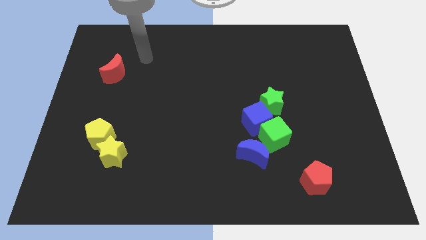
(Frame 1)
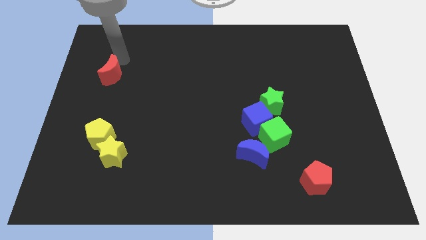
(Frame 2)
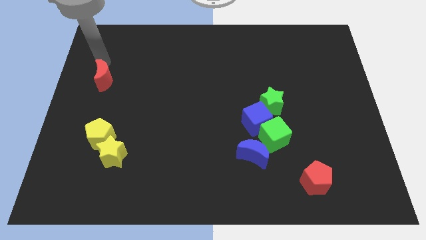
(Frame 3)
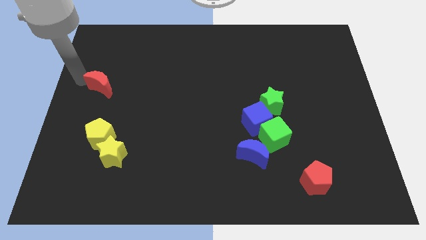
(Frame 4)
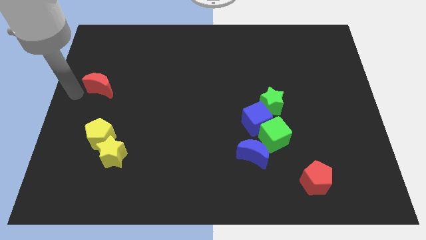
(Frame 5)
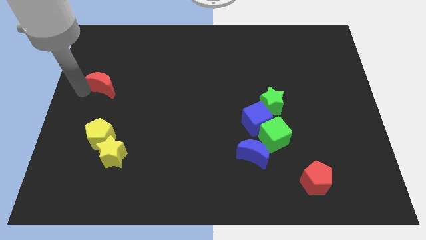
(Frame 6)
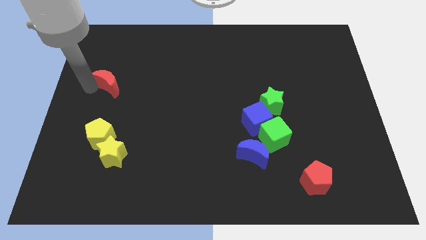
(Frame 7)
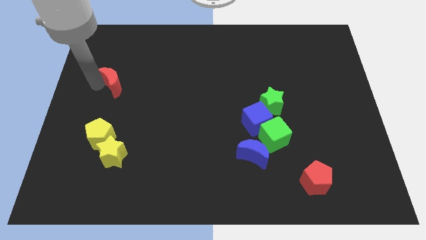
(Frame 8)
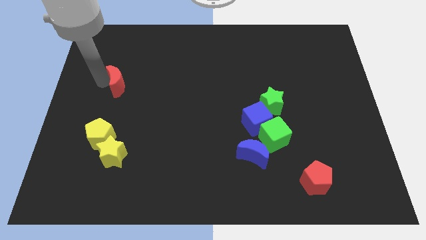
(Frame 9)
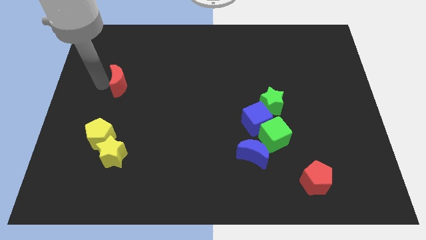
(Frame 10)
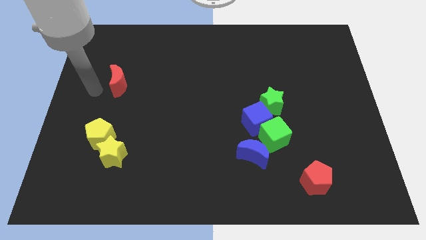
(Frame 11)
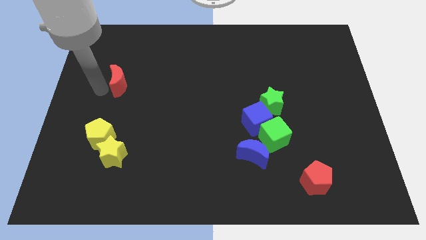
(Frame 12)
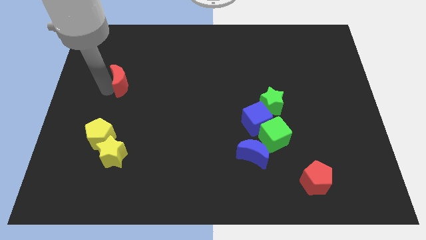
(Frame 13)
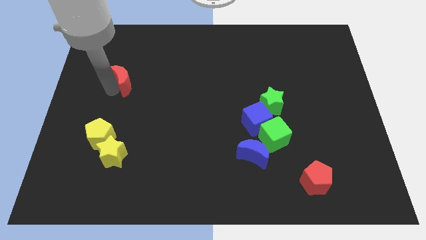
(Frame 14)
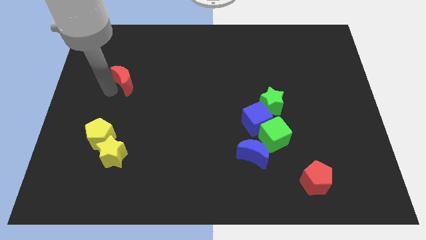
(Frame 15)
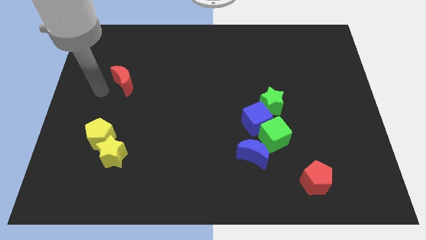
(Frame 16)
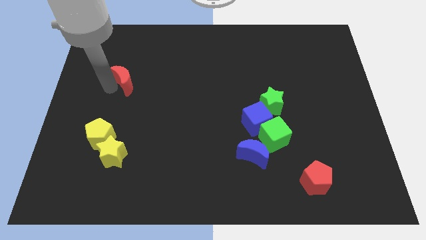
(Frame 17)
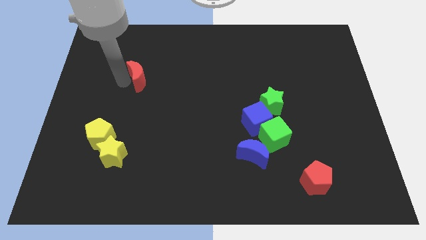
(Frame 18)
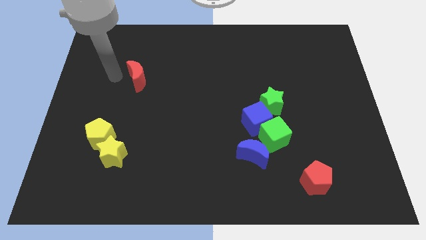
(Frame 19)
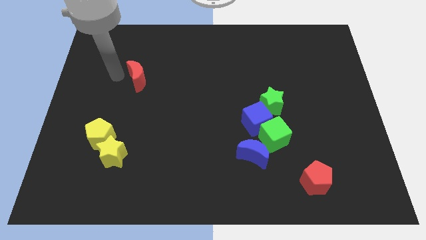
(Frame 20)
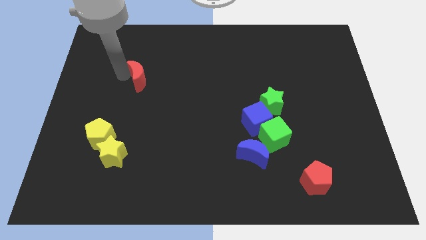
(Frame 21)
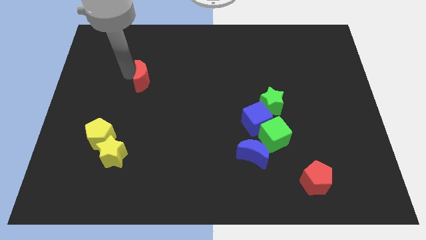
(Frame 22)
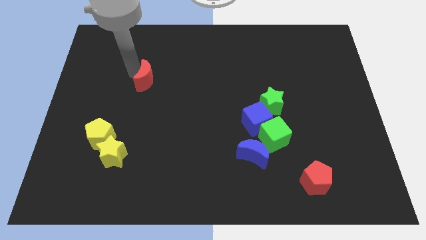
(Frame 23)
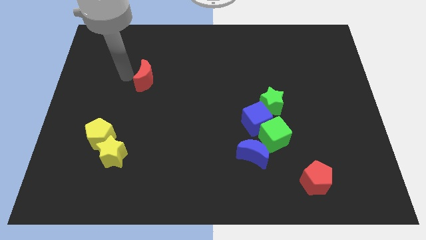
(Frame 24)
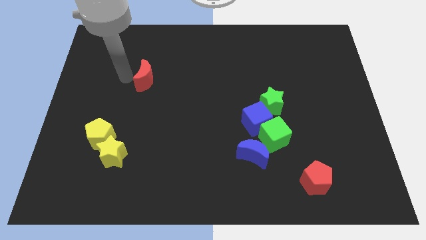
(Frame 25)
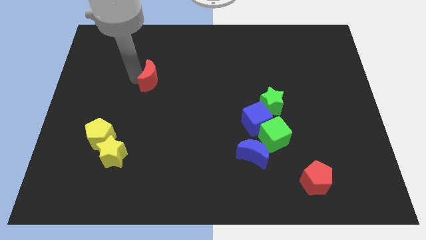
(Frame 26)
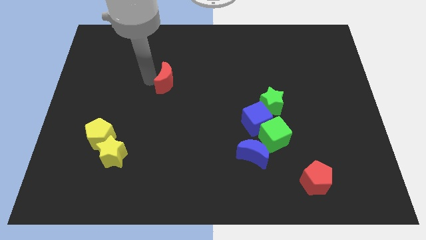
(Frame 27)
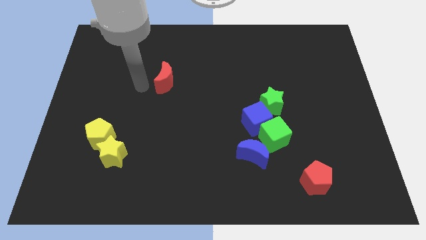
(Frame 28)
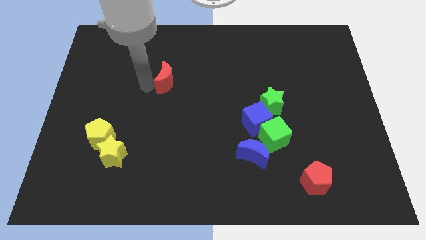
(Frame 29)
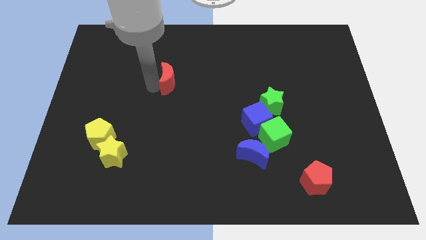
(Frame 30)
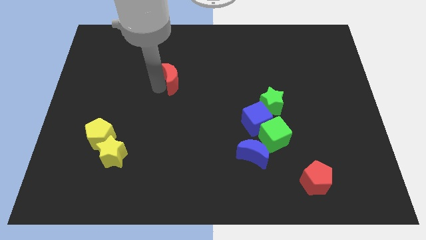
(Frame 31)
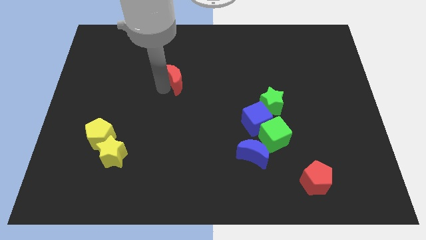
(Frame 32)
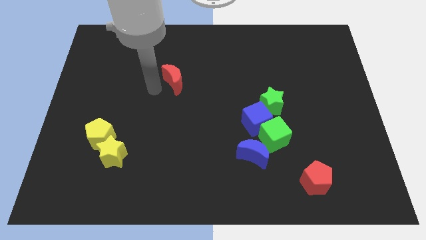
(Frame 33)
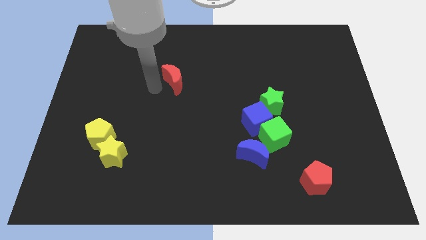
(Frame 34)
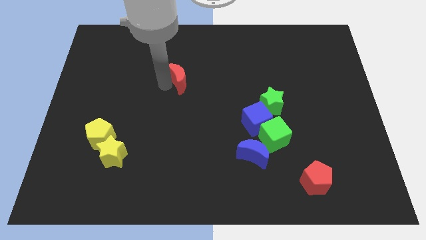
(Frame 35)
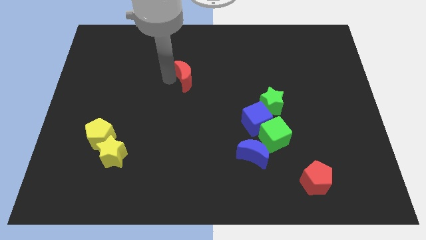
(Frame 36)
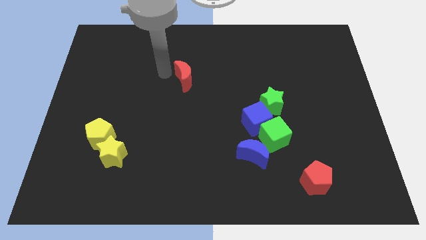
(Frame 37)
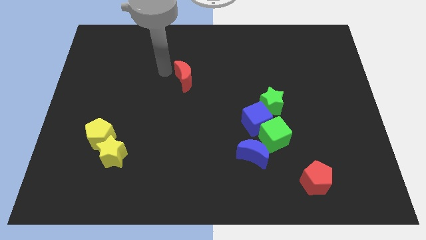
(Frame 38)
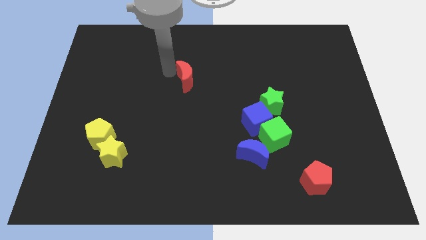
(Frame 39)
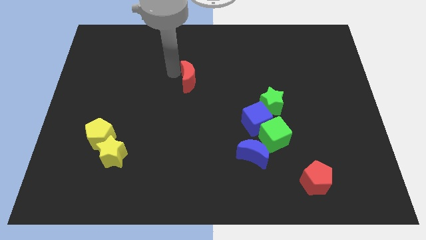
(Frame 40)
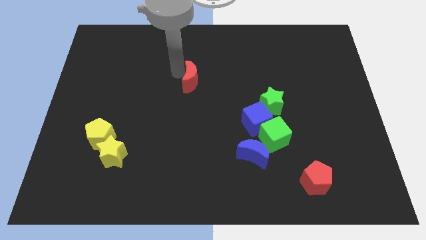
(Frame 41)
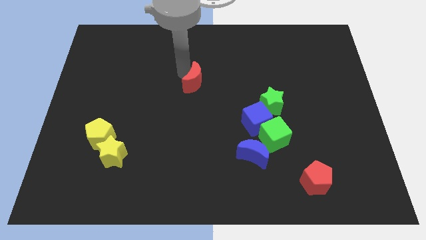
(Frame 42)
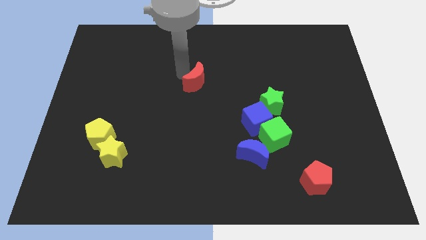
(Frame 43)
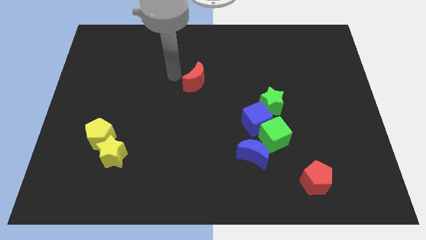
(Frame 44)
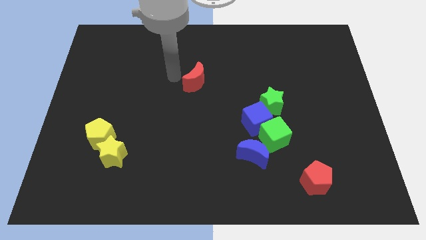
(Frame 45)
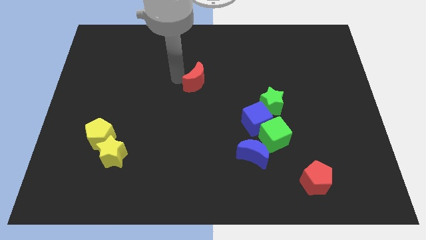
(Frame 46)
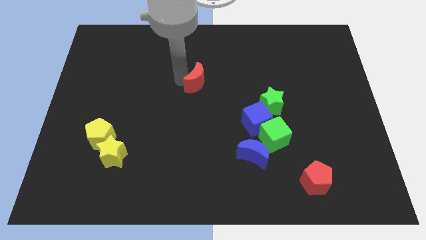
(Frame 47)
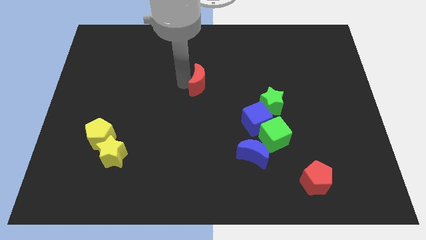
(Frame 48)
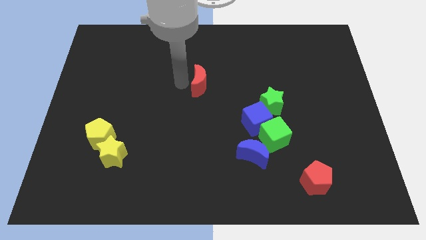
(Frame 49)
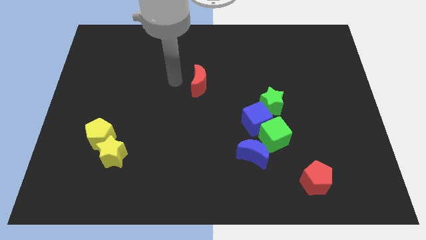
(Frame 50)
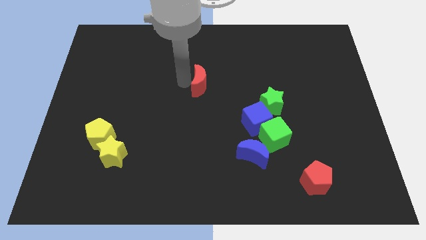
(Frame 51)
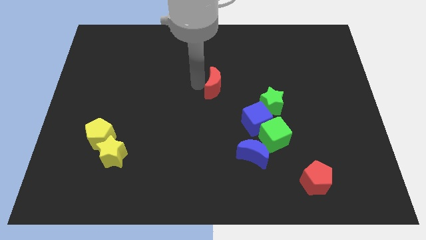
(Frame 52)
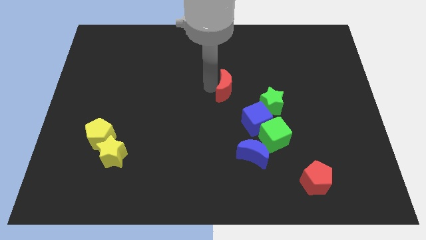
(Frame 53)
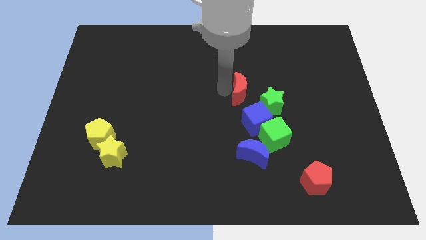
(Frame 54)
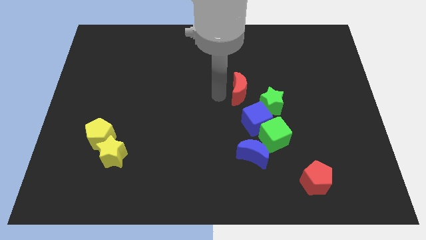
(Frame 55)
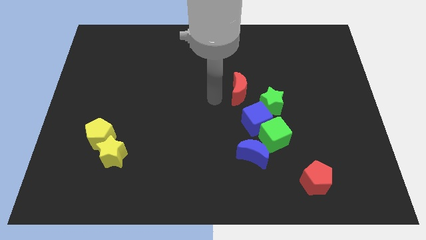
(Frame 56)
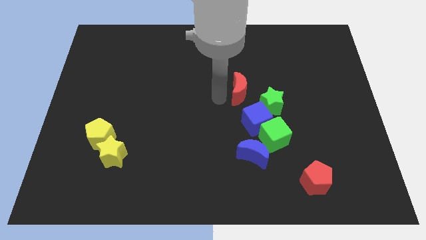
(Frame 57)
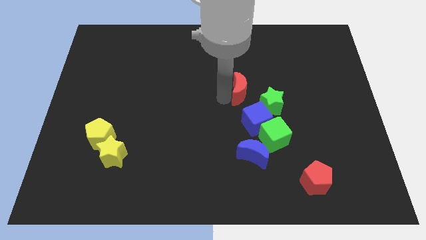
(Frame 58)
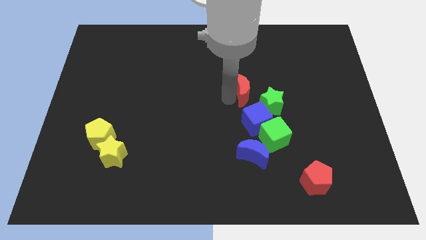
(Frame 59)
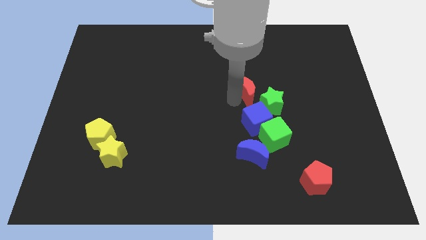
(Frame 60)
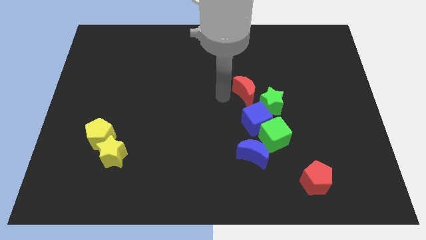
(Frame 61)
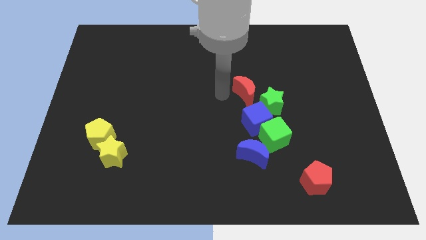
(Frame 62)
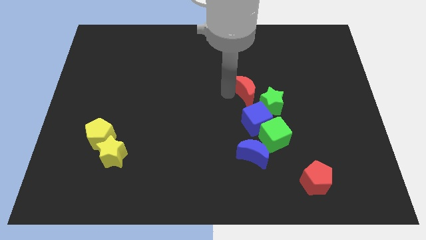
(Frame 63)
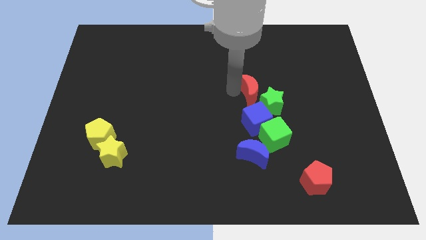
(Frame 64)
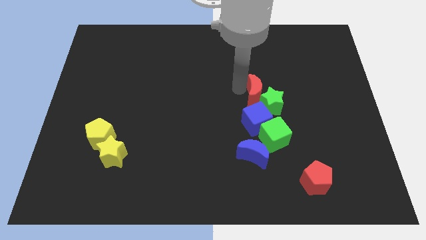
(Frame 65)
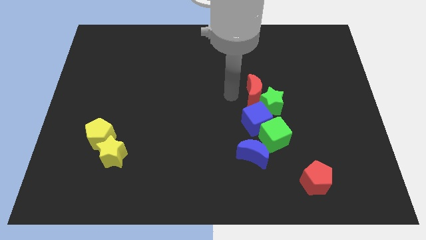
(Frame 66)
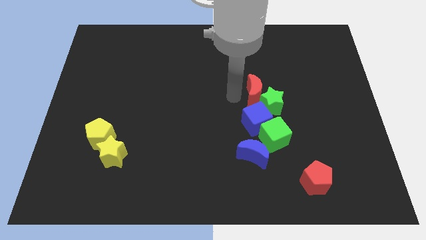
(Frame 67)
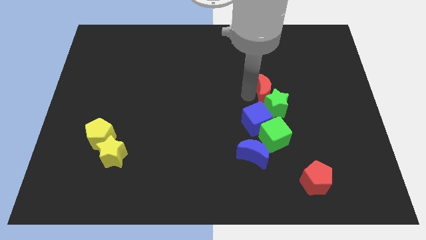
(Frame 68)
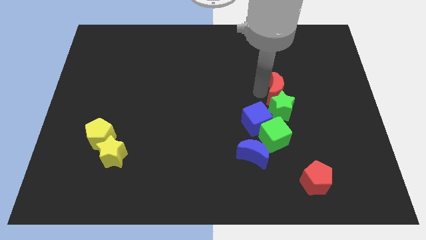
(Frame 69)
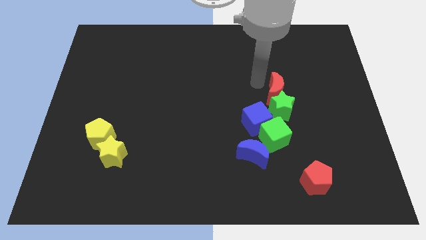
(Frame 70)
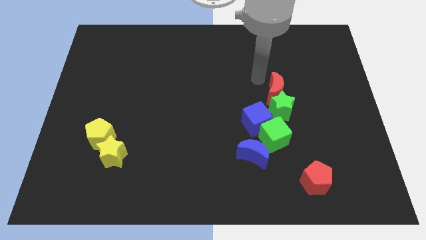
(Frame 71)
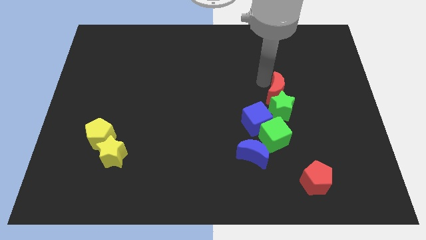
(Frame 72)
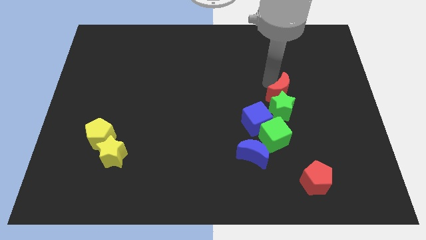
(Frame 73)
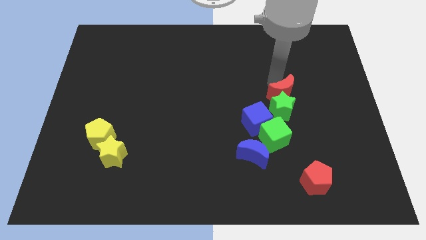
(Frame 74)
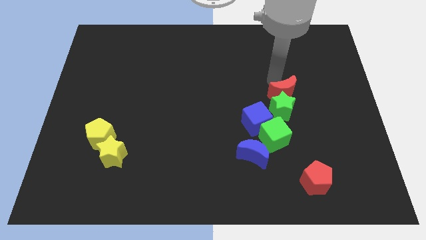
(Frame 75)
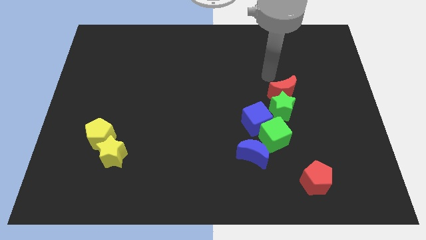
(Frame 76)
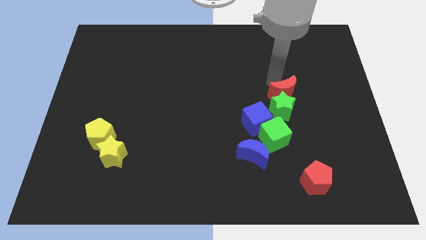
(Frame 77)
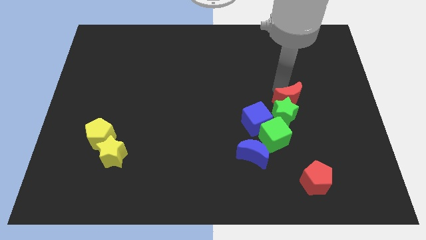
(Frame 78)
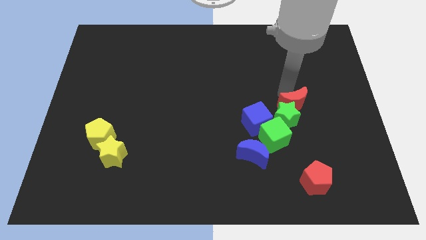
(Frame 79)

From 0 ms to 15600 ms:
slide the red moon to the top right side of the green cube
